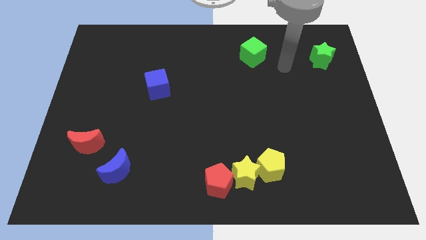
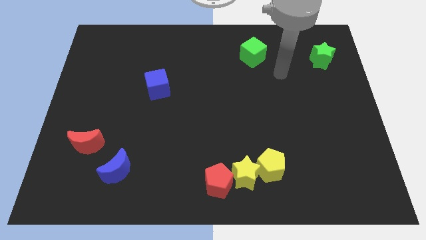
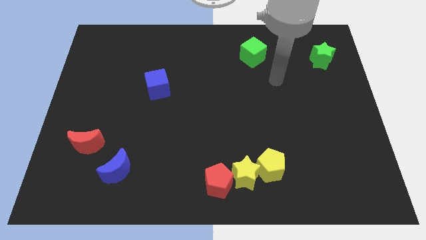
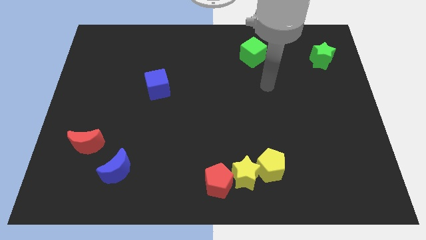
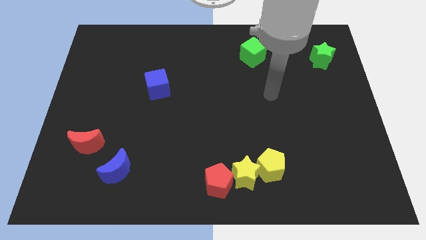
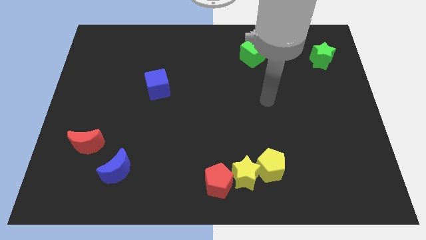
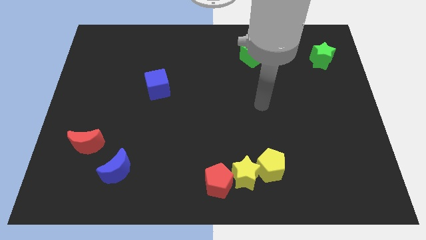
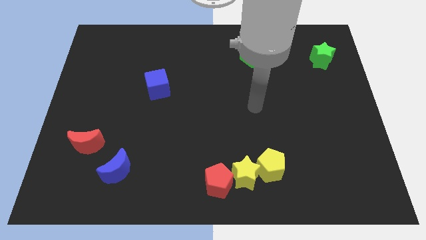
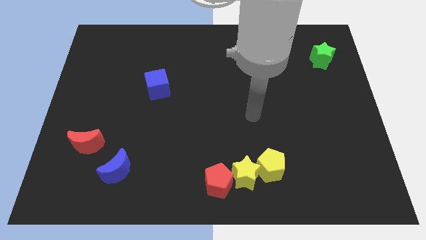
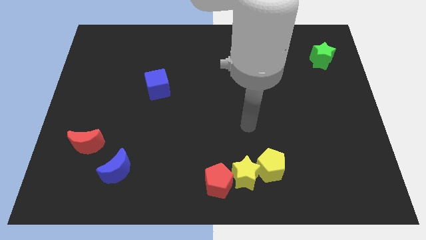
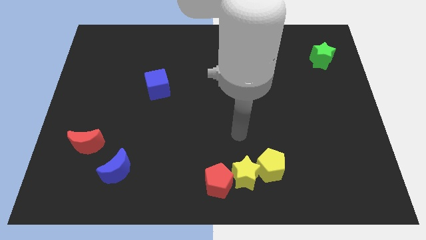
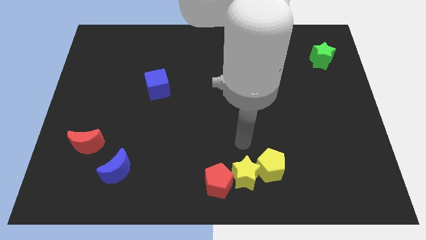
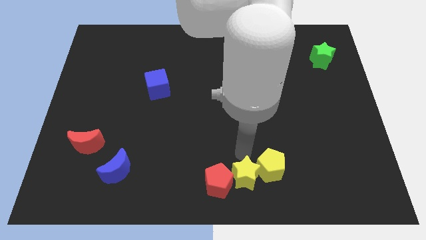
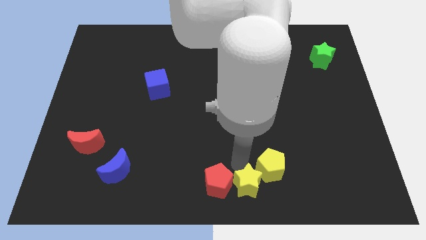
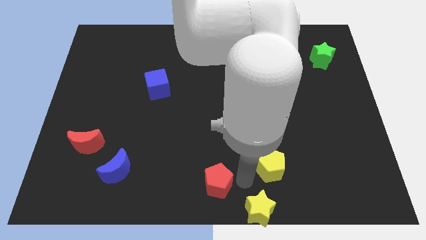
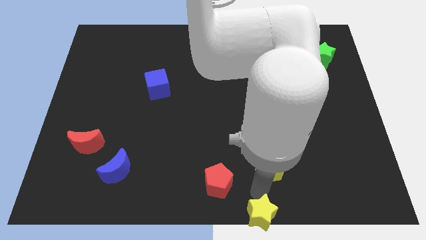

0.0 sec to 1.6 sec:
pull the yellow pentagon apart from the yellow star

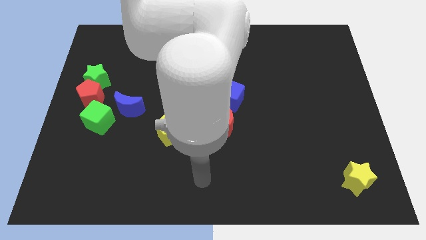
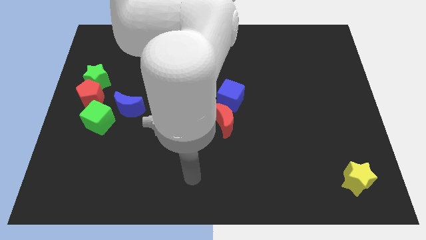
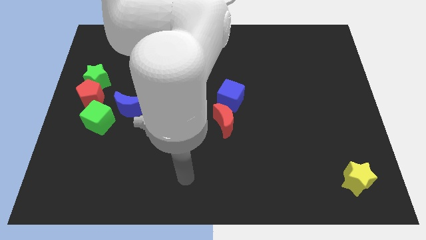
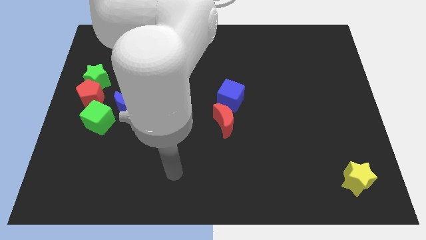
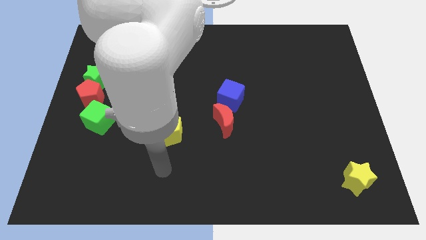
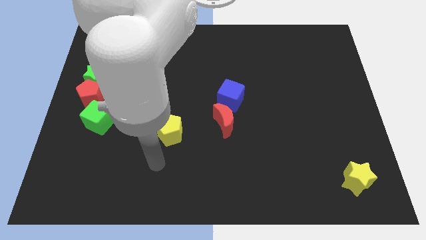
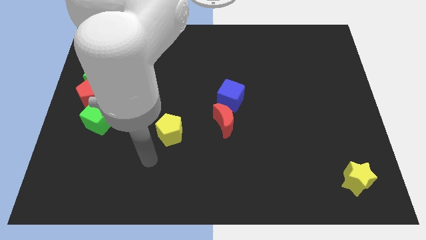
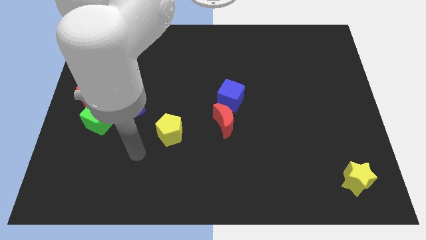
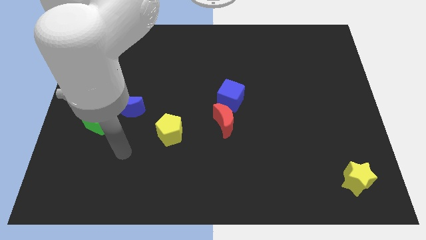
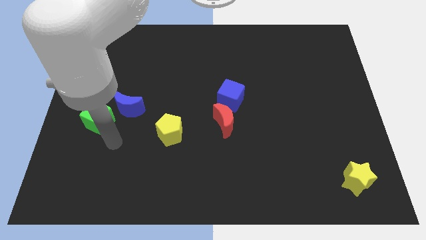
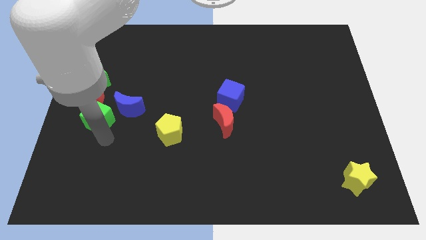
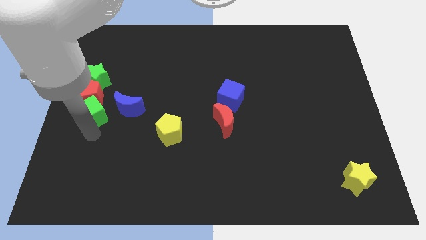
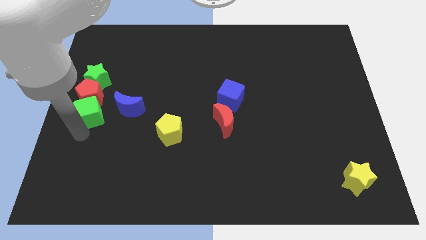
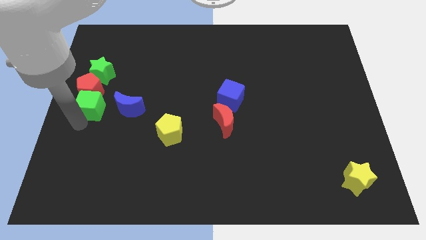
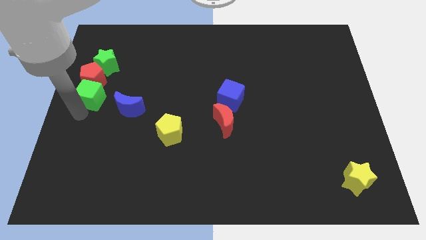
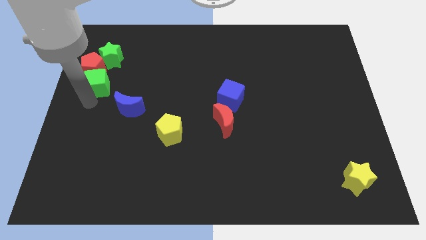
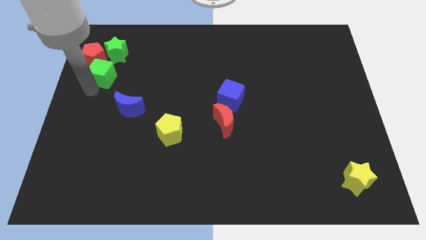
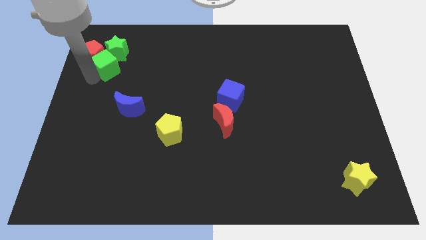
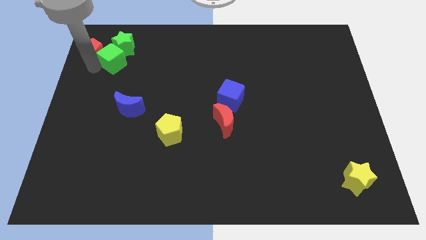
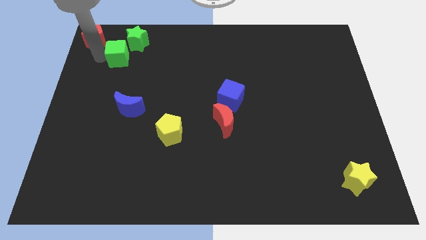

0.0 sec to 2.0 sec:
separate the green star from the red pentagon

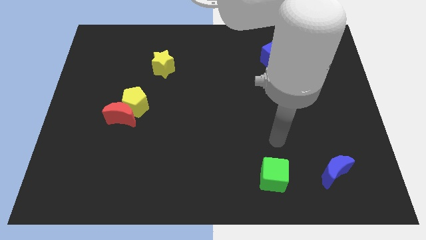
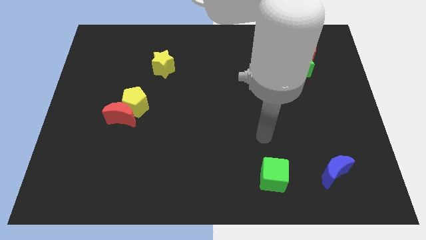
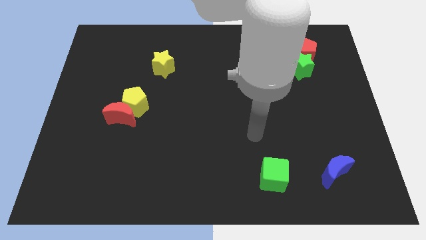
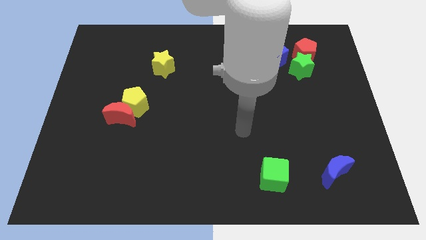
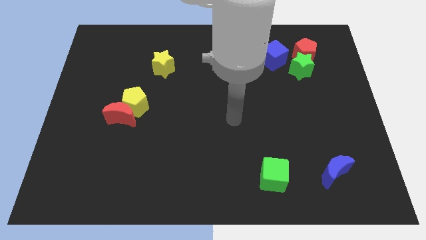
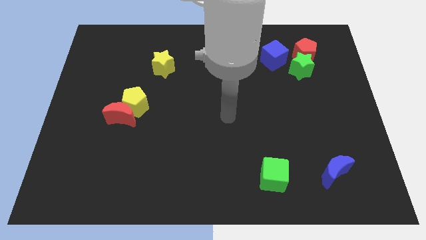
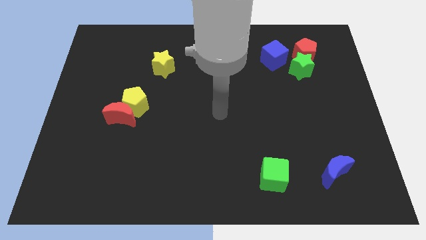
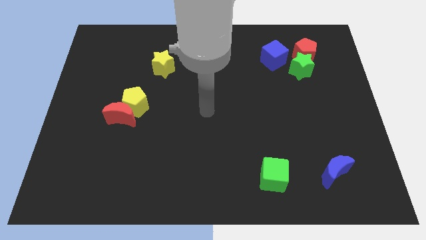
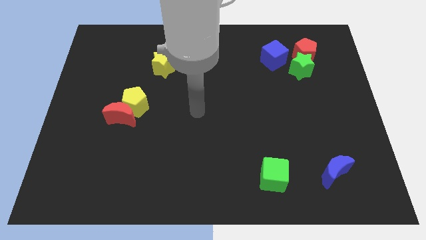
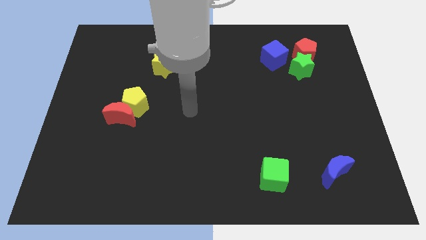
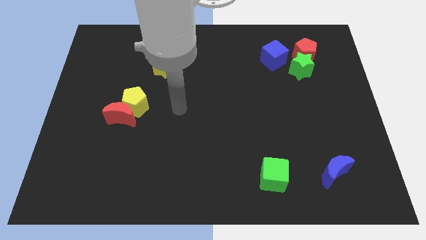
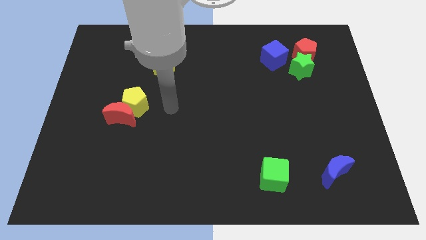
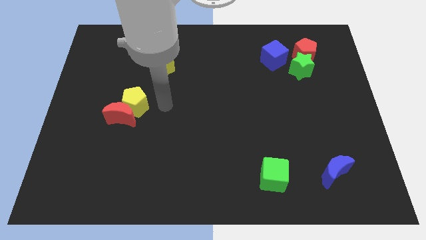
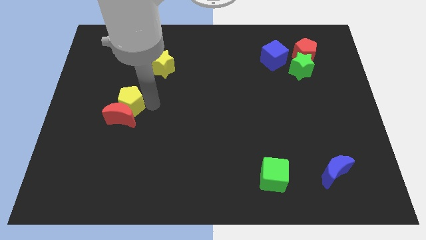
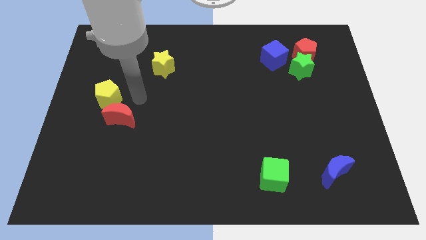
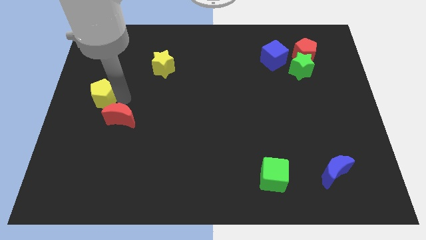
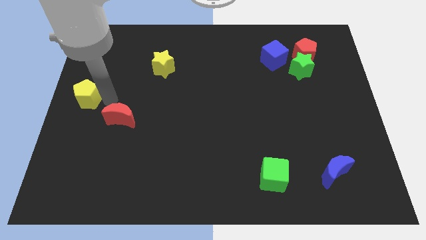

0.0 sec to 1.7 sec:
move the red moon away from the yellow pentagon

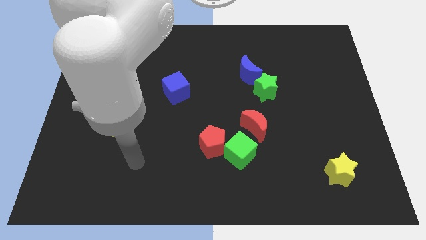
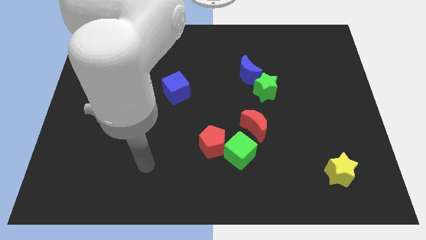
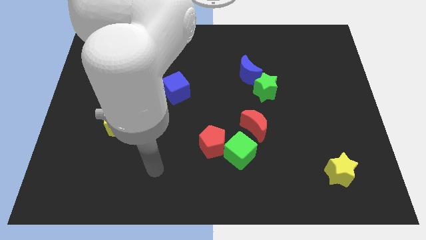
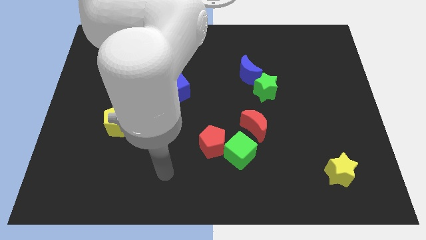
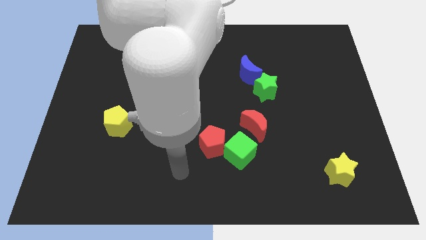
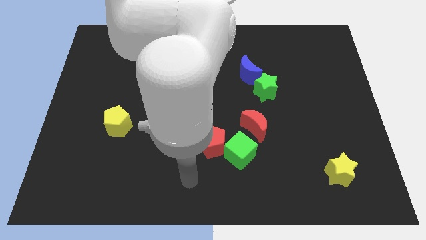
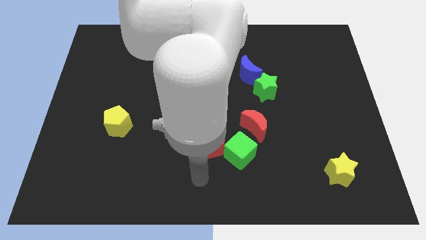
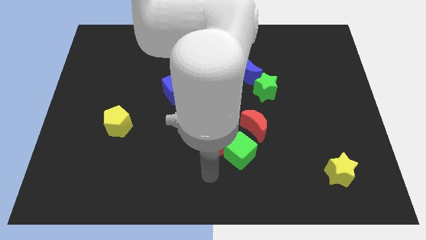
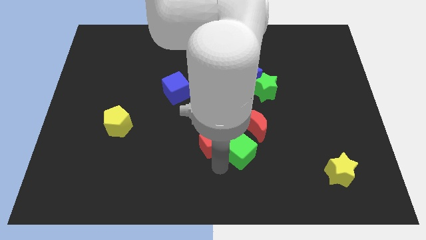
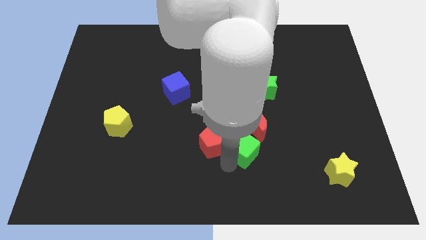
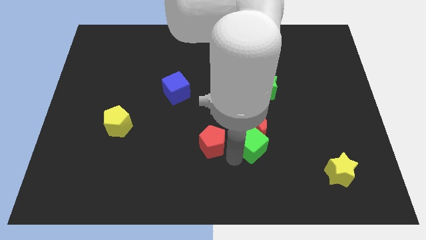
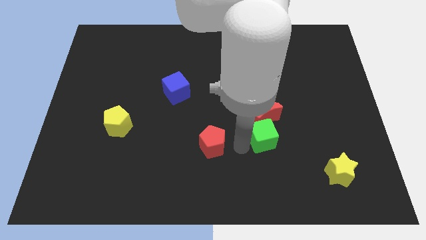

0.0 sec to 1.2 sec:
separate the red pentagon from the green cube

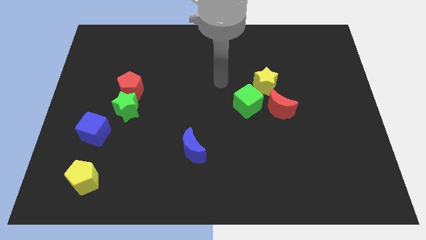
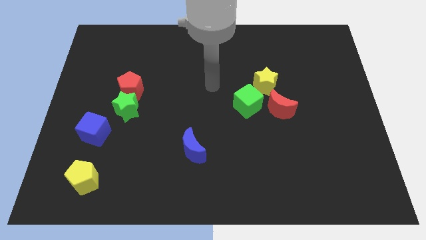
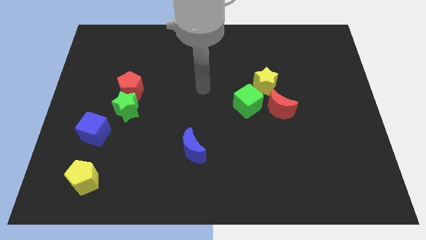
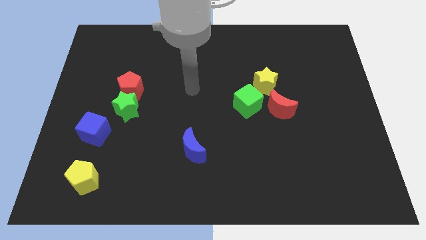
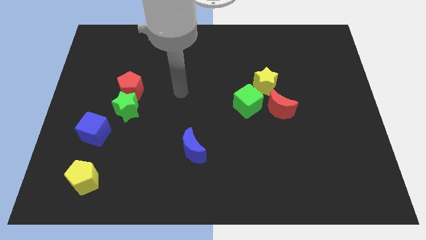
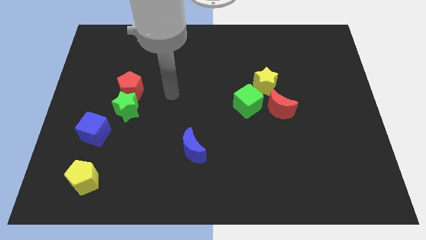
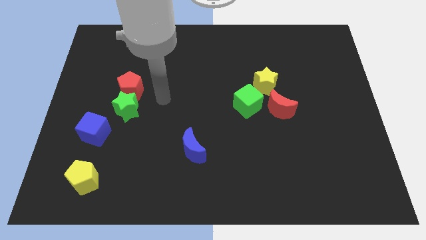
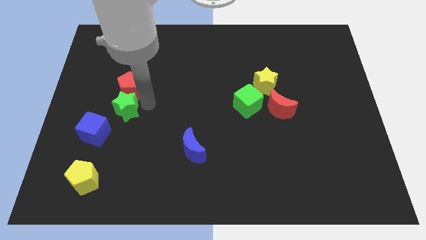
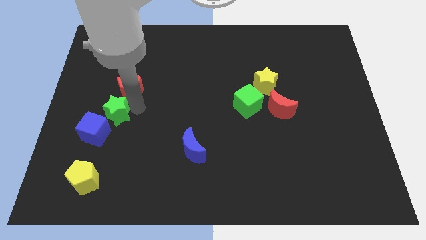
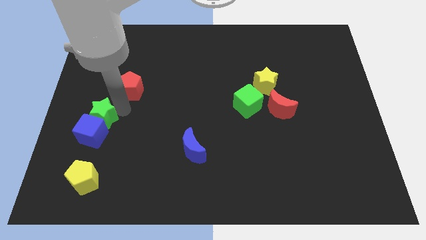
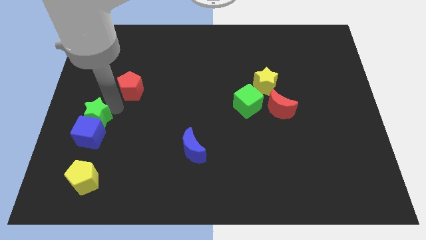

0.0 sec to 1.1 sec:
pull the red pentagon apart from the green star

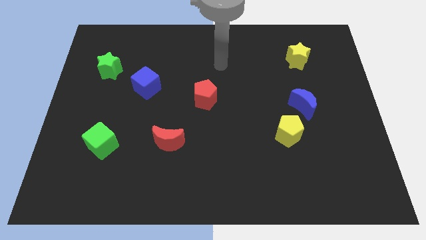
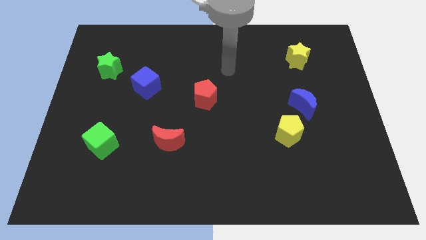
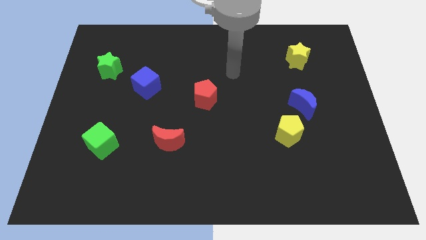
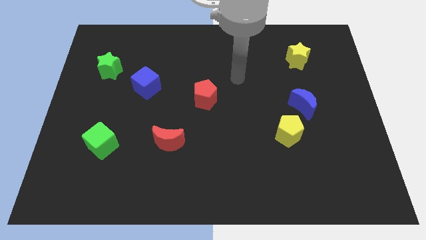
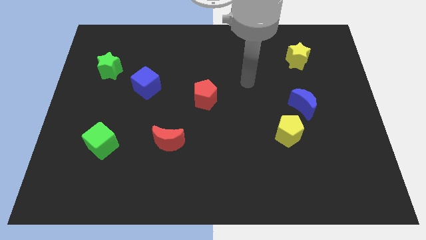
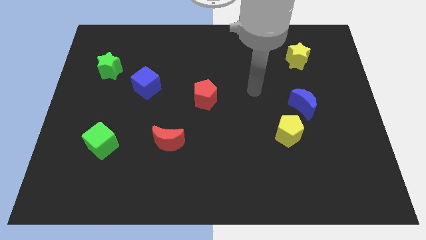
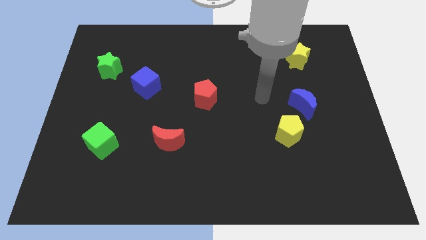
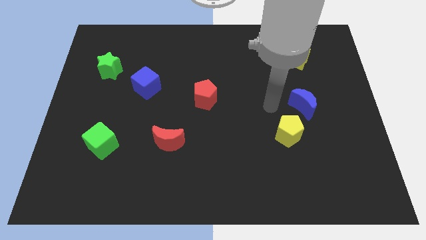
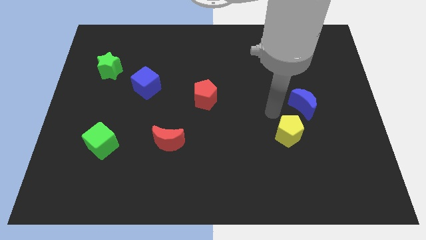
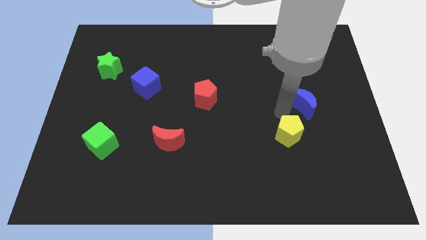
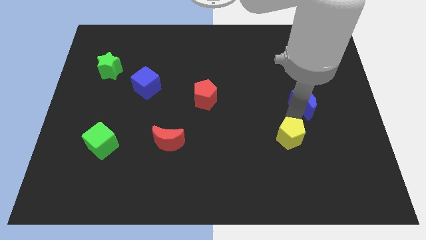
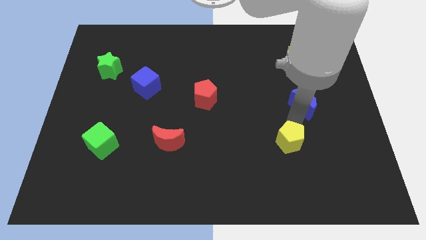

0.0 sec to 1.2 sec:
pull the blue moon apart from the yellow pentagon
